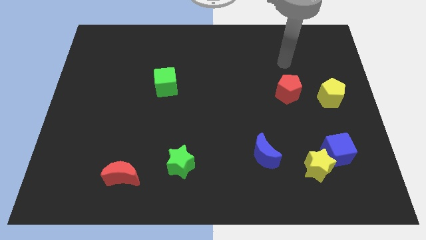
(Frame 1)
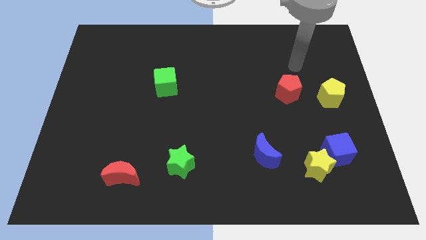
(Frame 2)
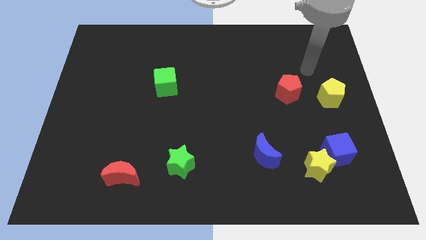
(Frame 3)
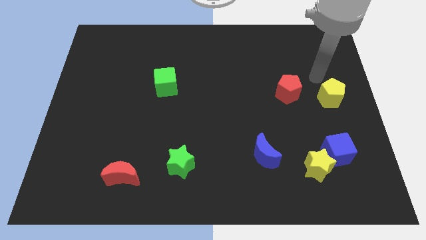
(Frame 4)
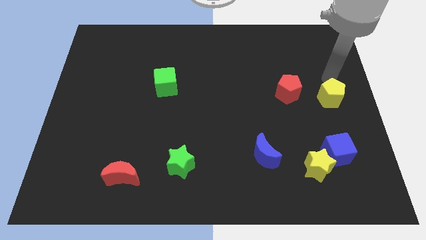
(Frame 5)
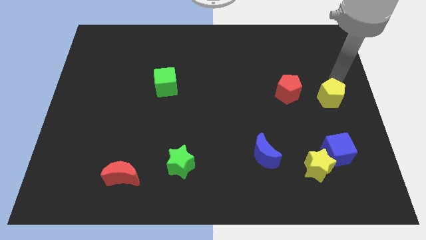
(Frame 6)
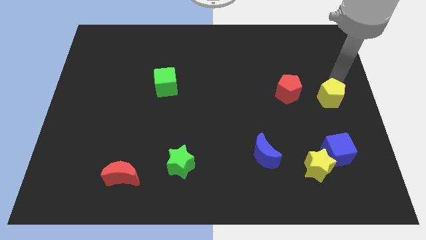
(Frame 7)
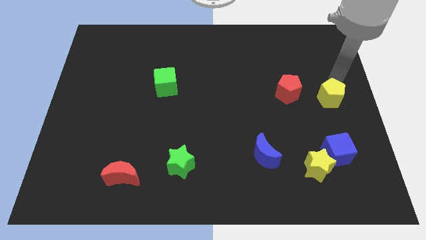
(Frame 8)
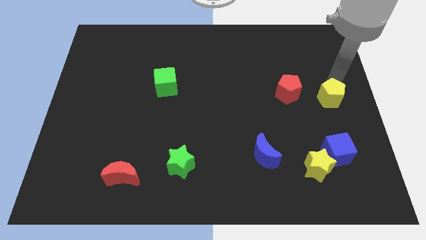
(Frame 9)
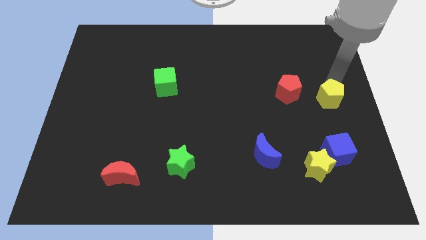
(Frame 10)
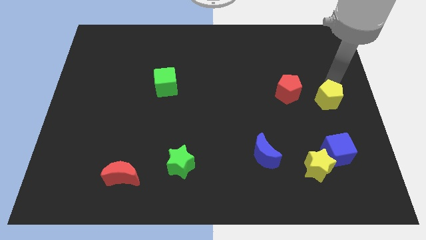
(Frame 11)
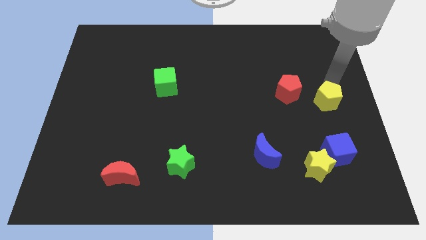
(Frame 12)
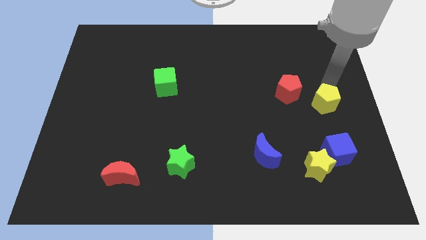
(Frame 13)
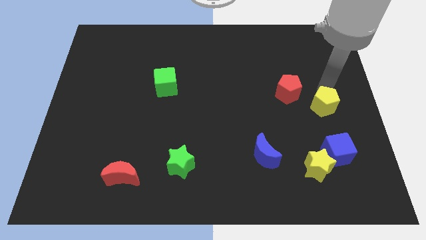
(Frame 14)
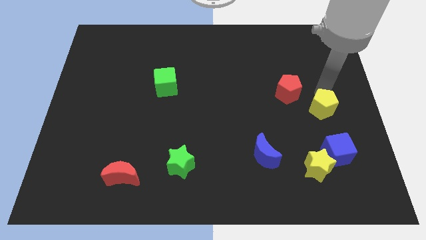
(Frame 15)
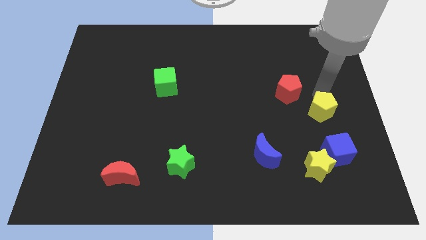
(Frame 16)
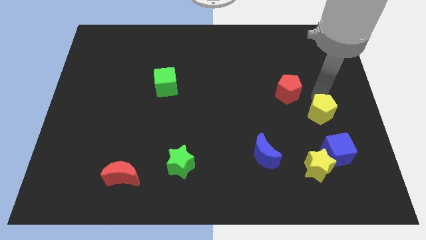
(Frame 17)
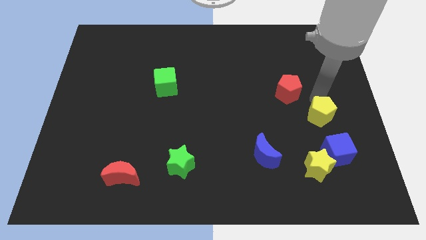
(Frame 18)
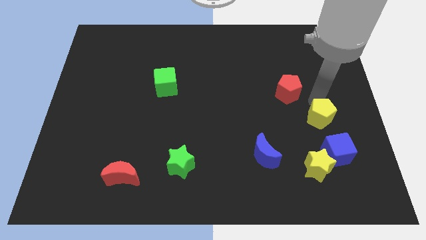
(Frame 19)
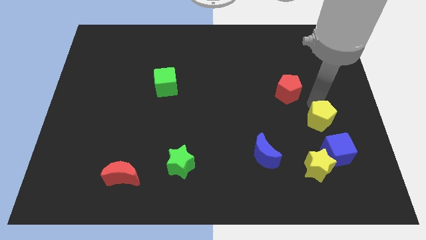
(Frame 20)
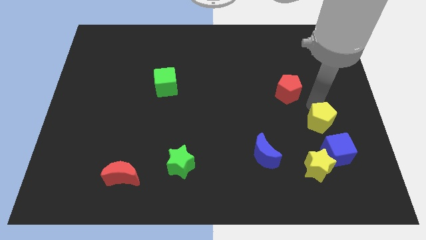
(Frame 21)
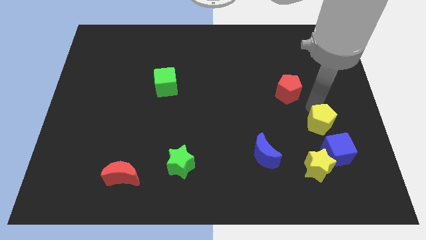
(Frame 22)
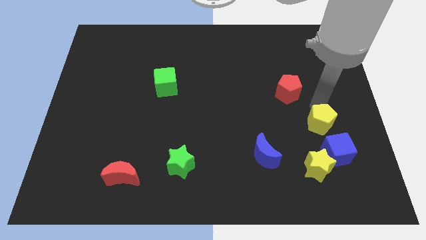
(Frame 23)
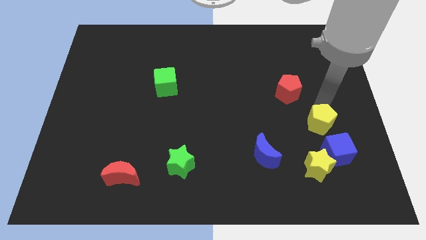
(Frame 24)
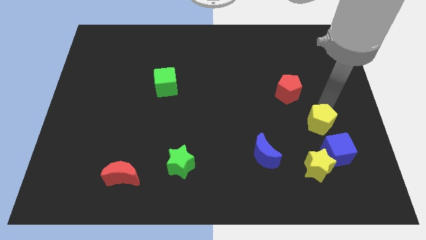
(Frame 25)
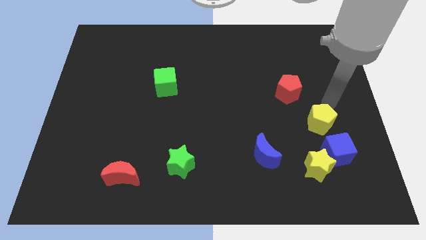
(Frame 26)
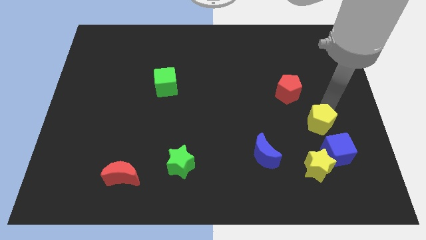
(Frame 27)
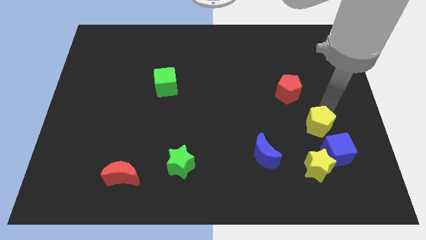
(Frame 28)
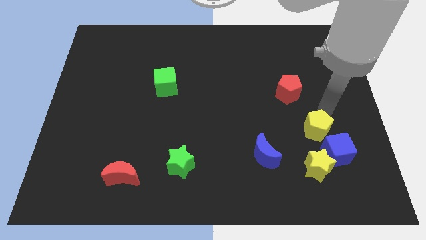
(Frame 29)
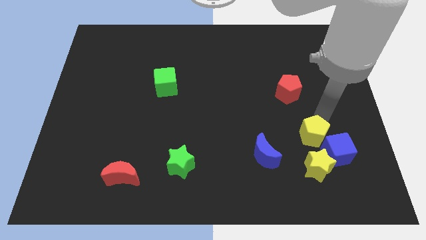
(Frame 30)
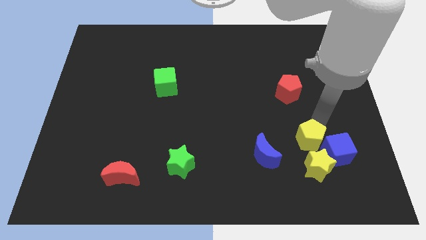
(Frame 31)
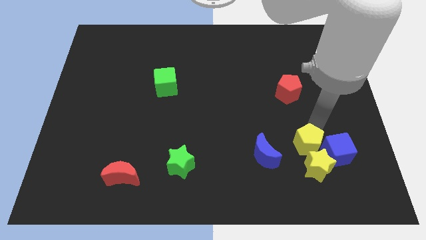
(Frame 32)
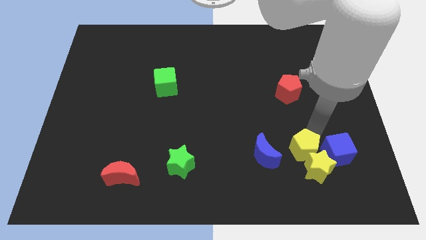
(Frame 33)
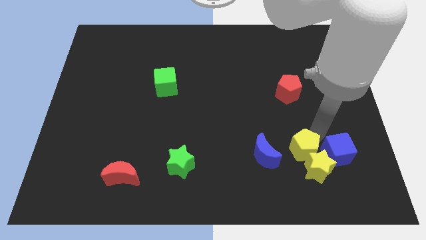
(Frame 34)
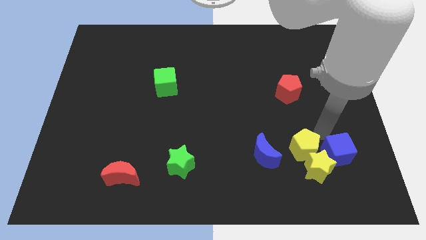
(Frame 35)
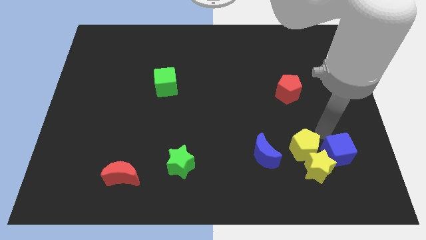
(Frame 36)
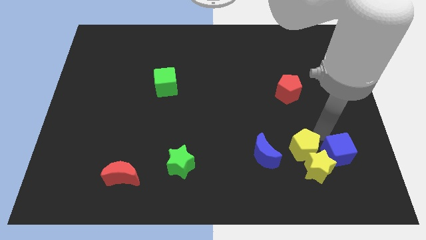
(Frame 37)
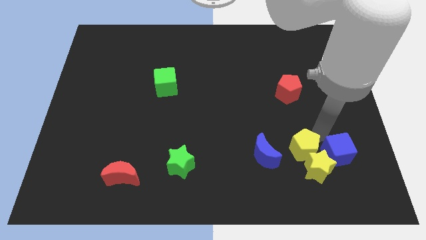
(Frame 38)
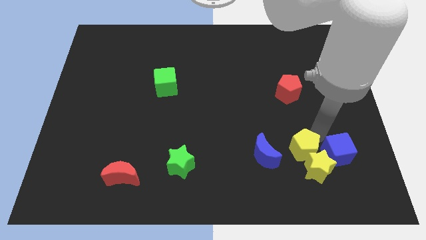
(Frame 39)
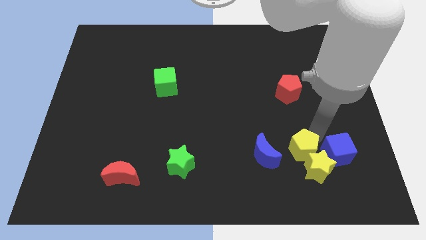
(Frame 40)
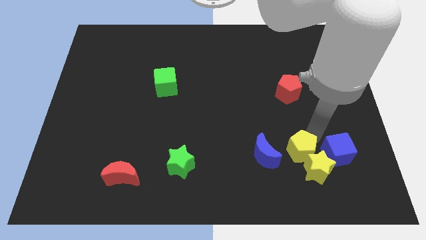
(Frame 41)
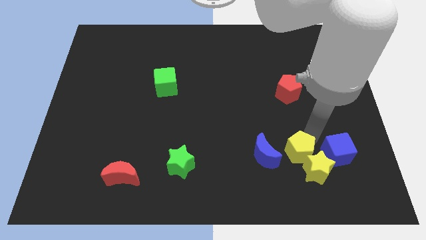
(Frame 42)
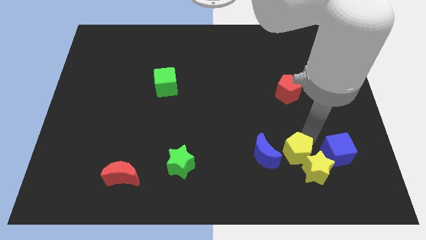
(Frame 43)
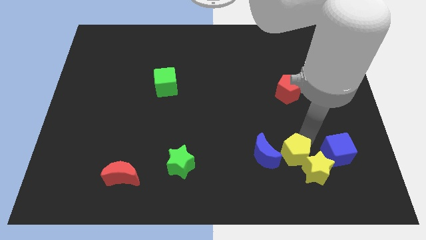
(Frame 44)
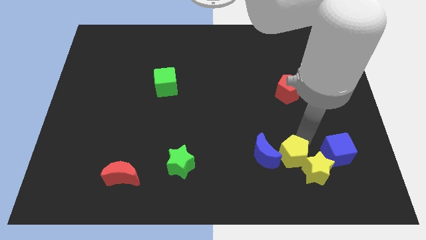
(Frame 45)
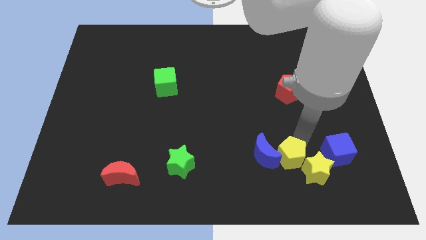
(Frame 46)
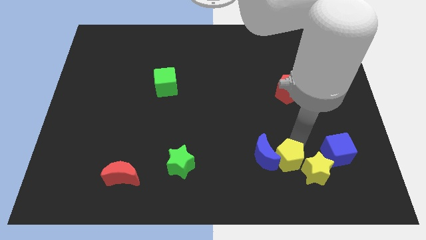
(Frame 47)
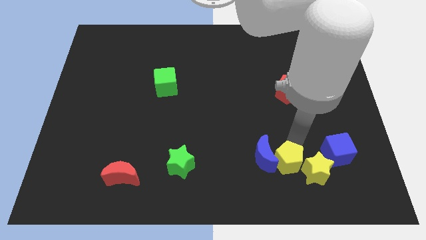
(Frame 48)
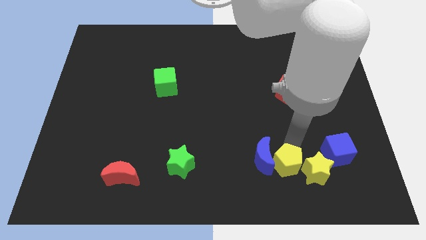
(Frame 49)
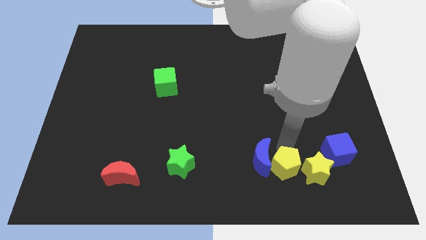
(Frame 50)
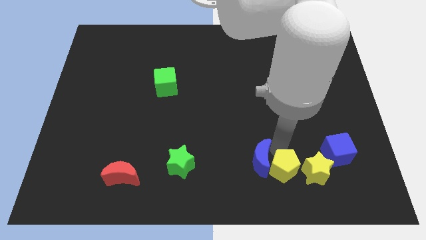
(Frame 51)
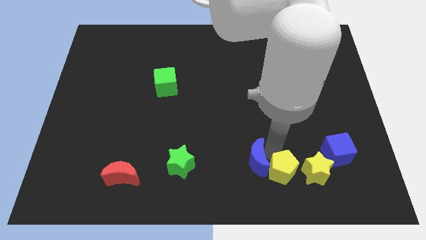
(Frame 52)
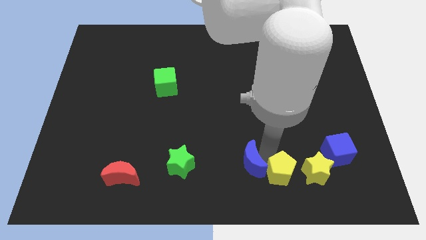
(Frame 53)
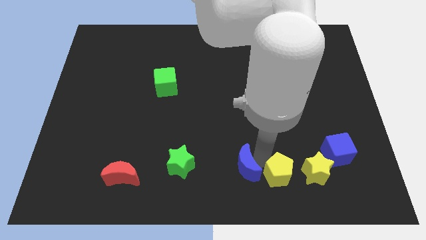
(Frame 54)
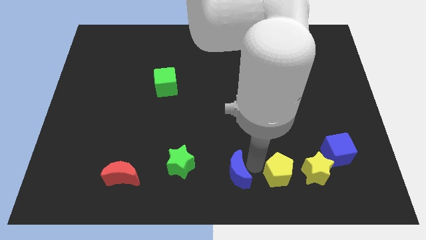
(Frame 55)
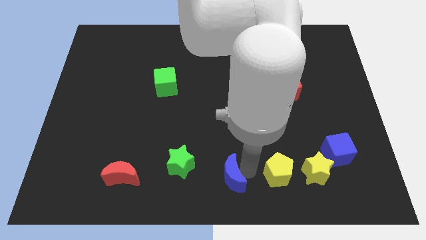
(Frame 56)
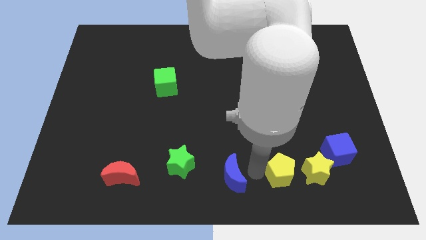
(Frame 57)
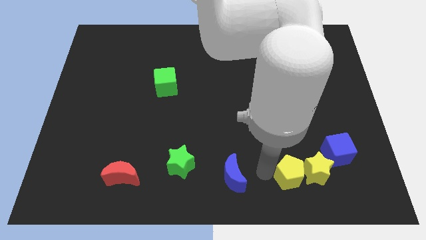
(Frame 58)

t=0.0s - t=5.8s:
push the yellow pentagon to the bottom left of the blue cube

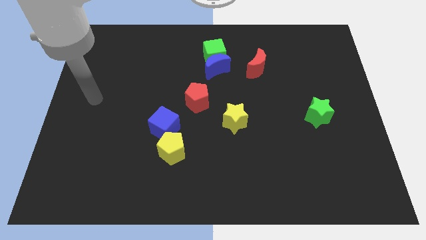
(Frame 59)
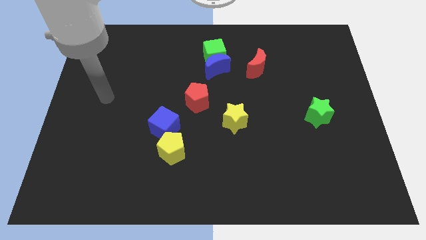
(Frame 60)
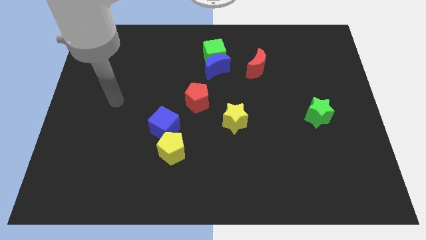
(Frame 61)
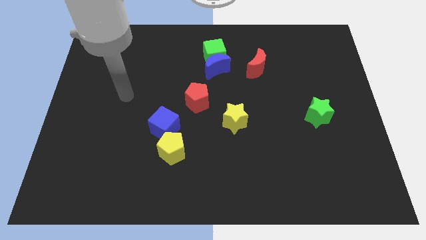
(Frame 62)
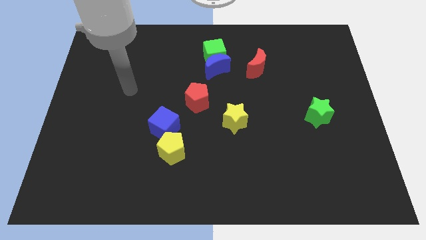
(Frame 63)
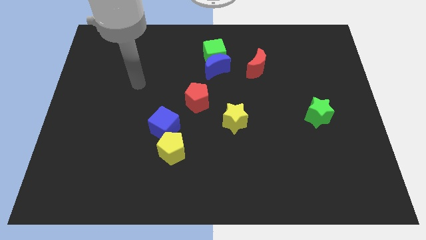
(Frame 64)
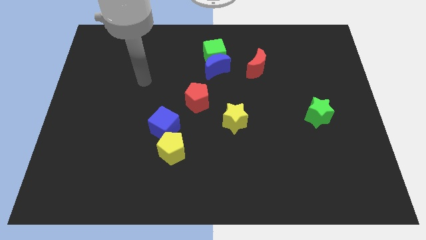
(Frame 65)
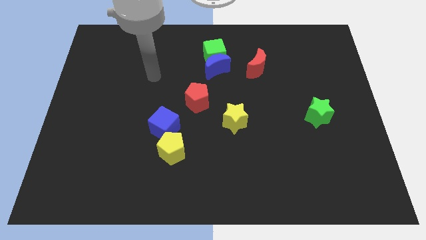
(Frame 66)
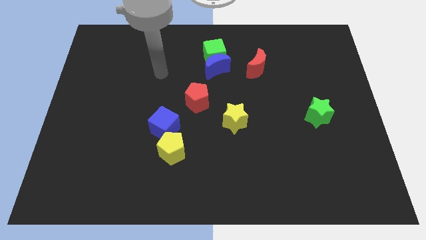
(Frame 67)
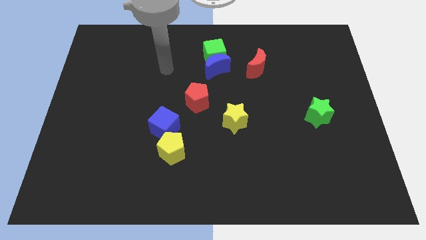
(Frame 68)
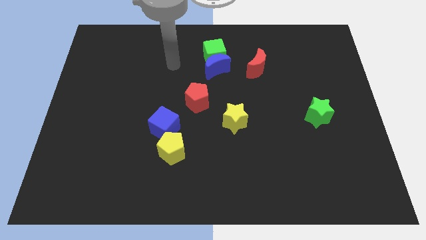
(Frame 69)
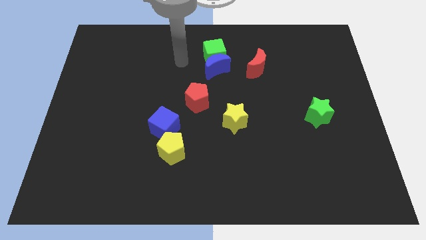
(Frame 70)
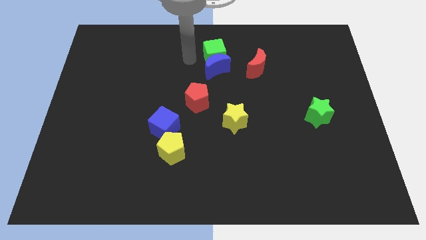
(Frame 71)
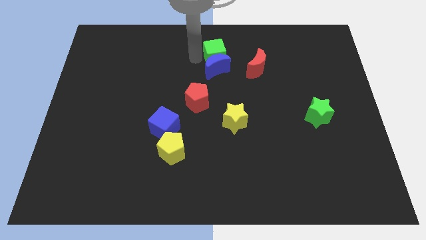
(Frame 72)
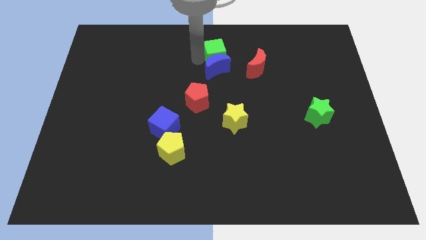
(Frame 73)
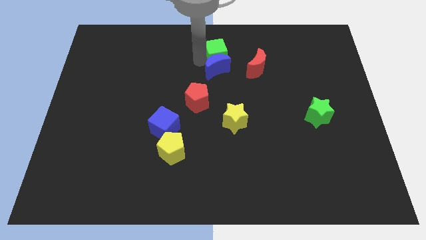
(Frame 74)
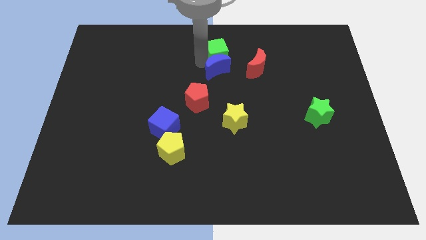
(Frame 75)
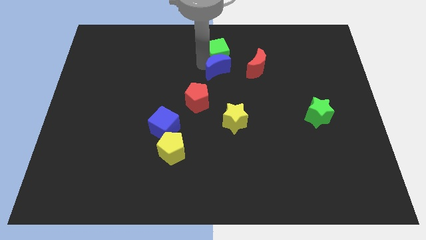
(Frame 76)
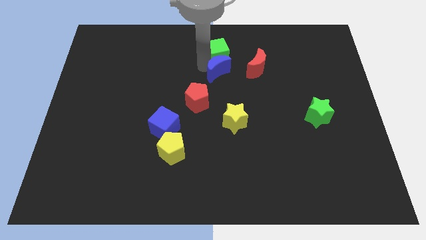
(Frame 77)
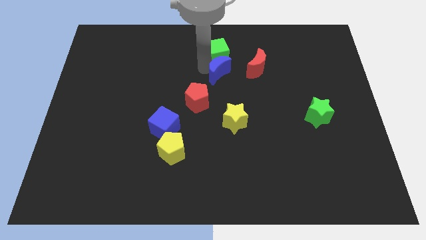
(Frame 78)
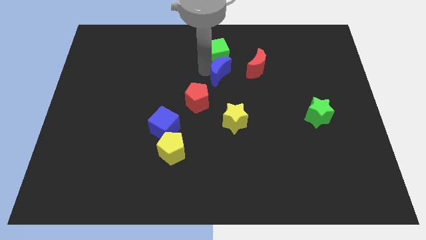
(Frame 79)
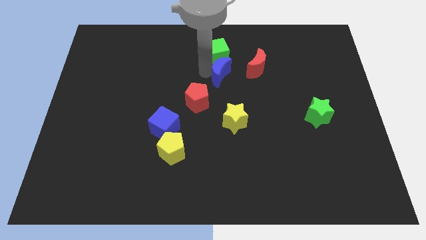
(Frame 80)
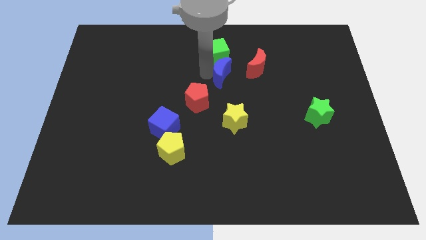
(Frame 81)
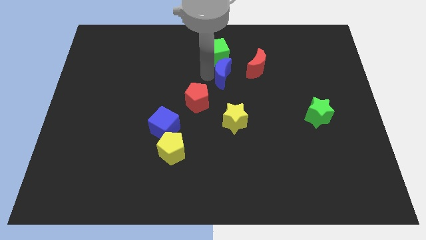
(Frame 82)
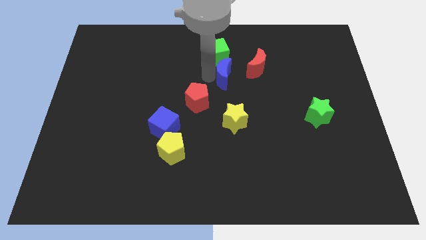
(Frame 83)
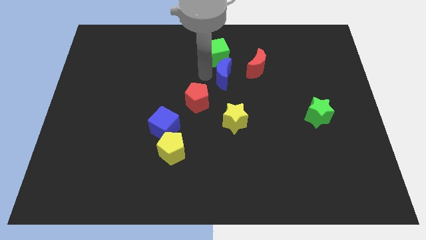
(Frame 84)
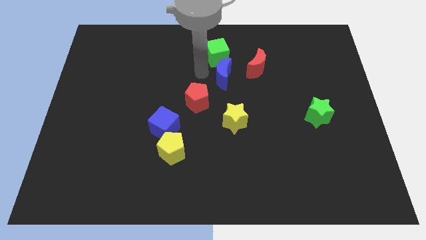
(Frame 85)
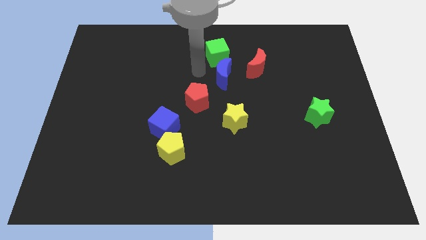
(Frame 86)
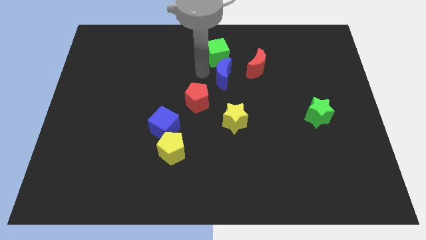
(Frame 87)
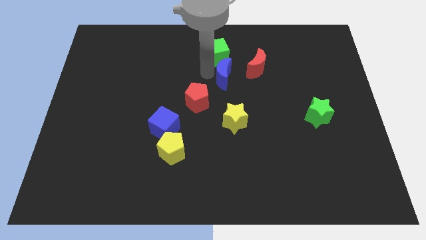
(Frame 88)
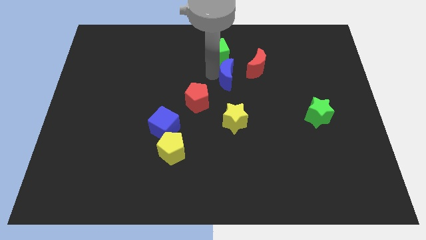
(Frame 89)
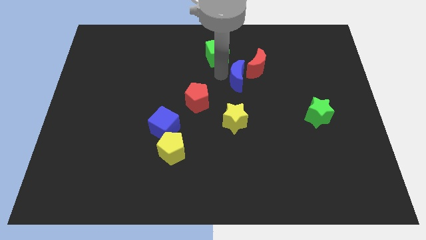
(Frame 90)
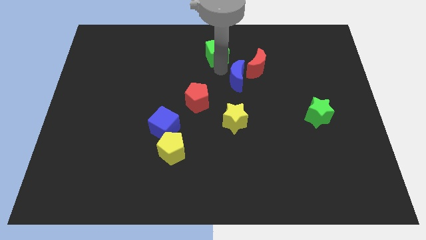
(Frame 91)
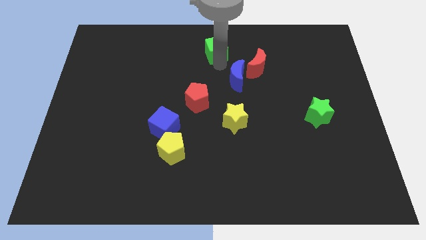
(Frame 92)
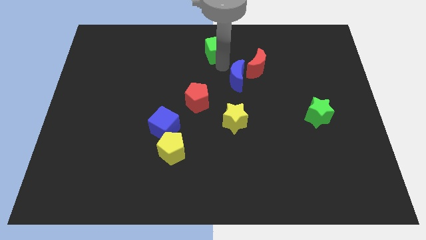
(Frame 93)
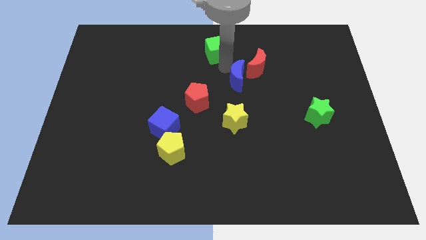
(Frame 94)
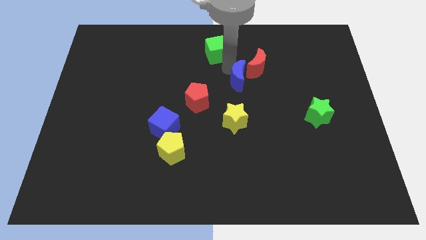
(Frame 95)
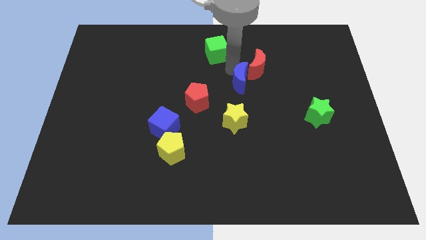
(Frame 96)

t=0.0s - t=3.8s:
slide the blue moon to the bottom side of the red moon
